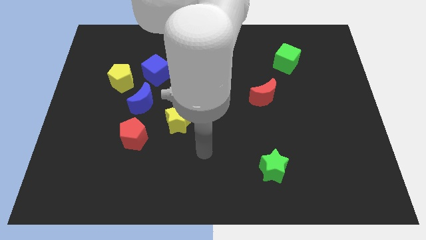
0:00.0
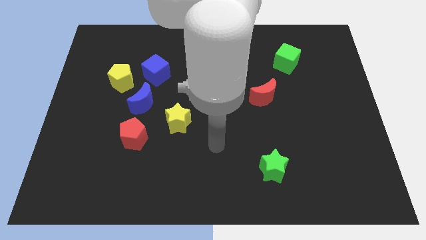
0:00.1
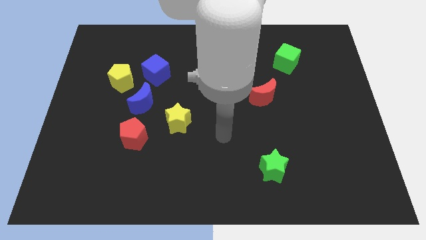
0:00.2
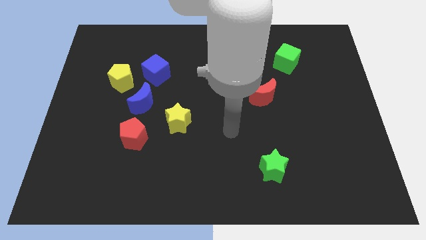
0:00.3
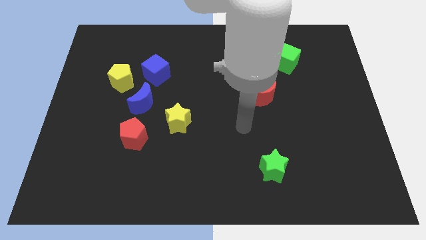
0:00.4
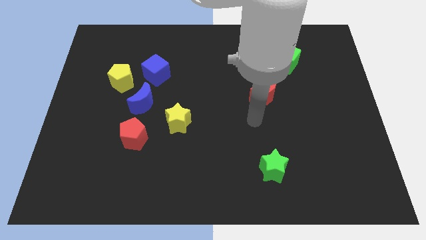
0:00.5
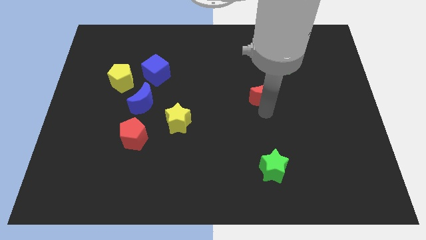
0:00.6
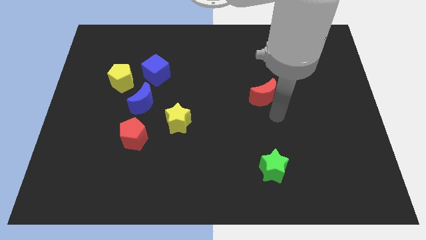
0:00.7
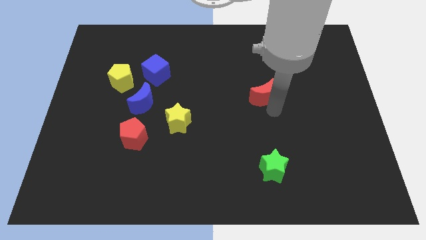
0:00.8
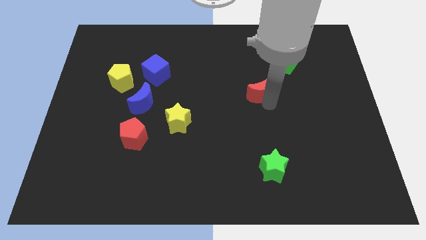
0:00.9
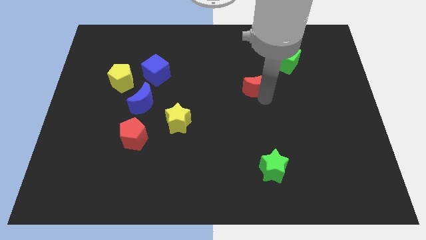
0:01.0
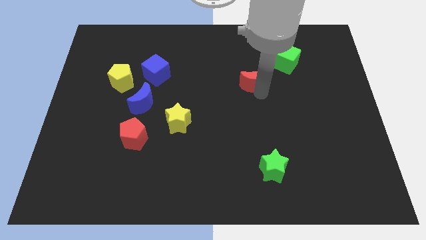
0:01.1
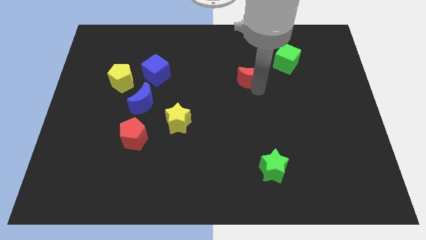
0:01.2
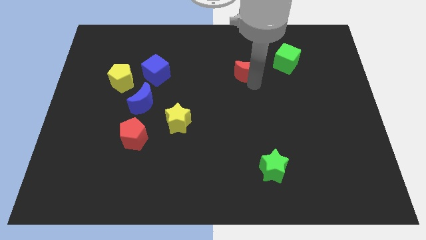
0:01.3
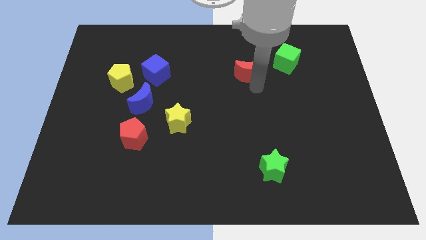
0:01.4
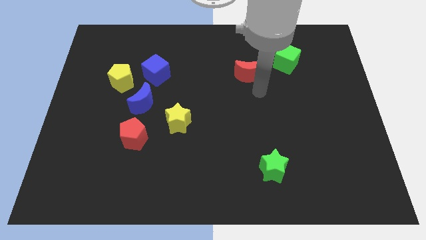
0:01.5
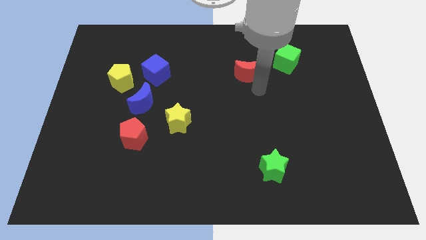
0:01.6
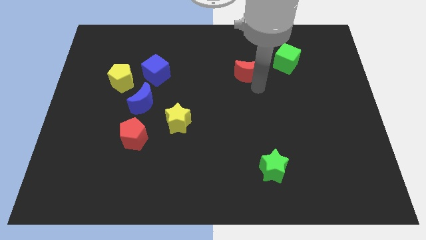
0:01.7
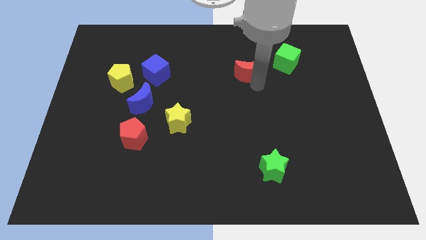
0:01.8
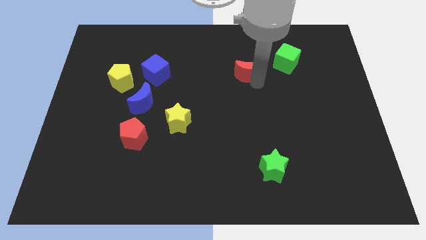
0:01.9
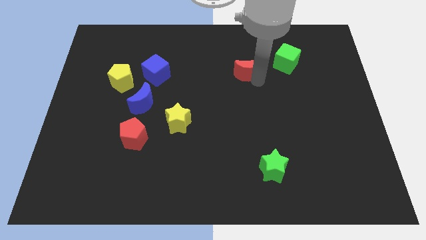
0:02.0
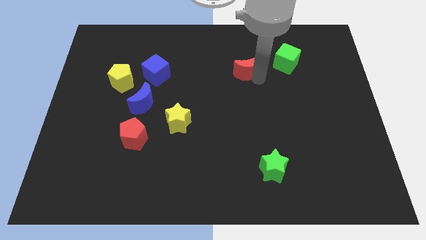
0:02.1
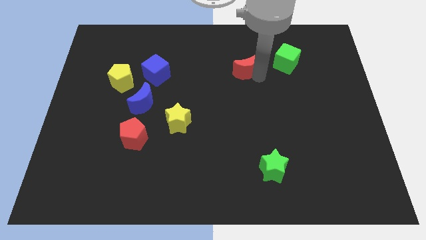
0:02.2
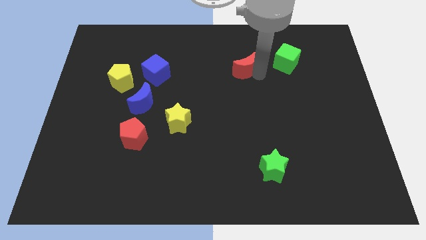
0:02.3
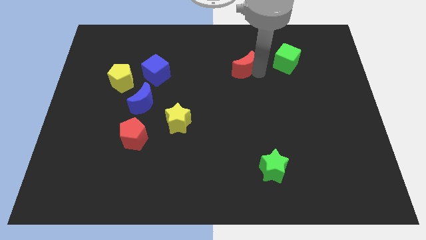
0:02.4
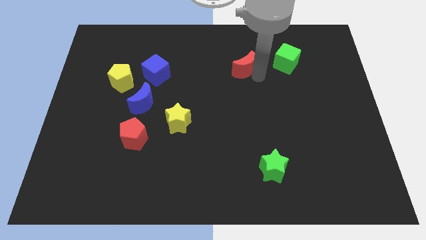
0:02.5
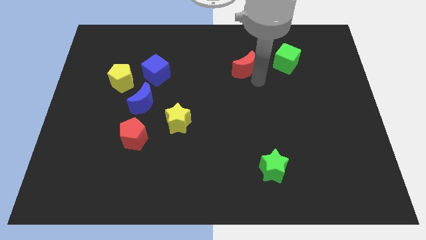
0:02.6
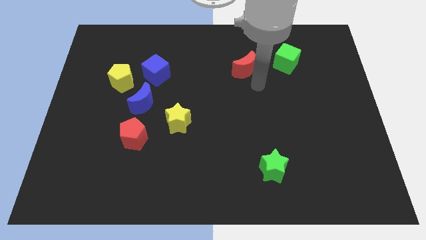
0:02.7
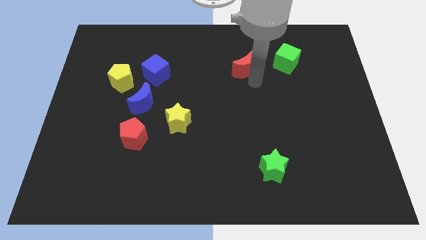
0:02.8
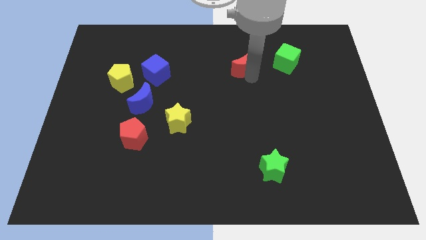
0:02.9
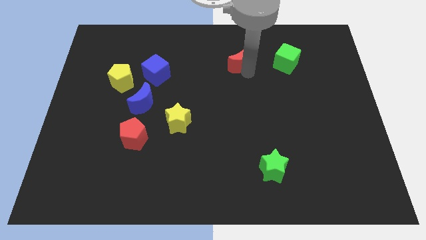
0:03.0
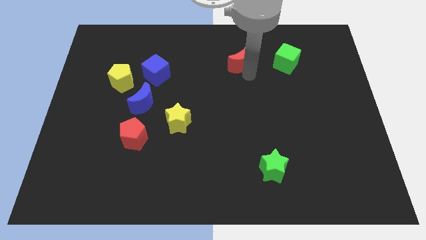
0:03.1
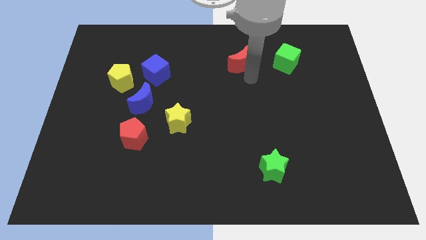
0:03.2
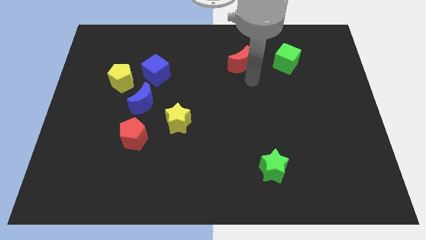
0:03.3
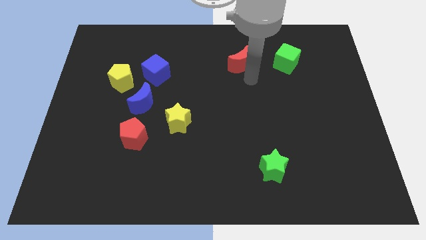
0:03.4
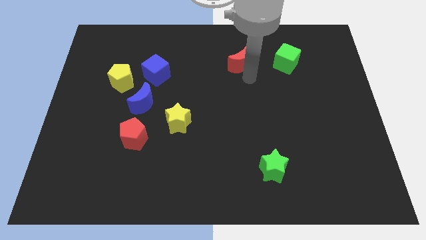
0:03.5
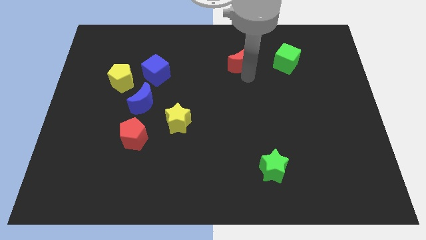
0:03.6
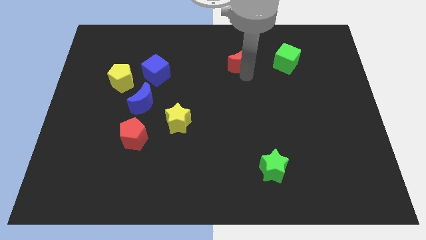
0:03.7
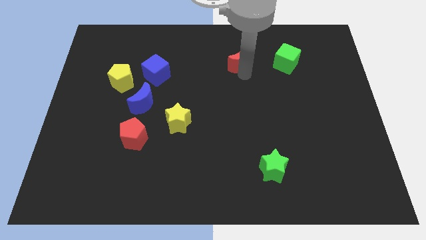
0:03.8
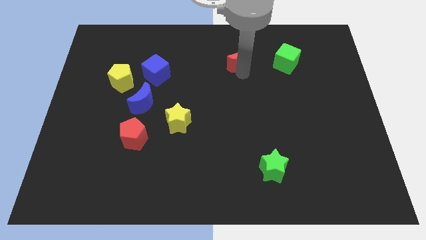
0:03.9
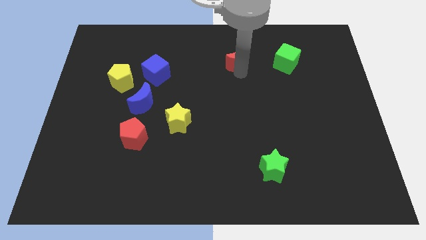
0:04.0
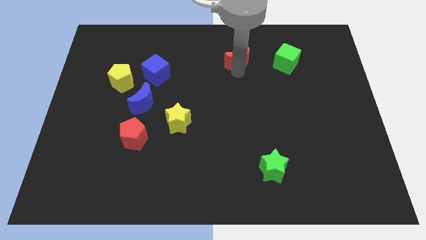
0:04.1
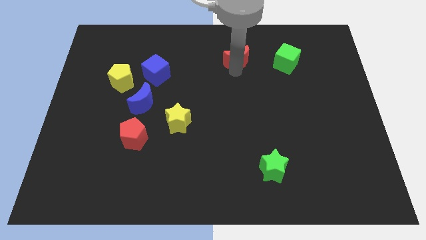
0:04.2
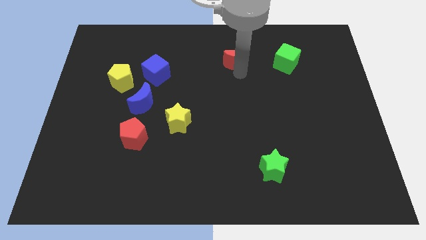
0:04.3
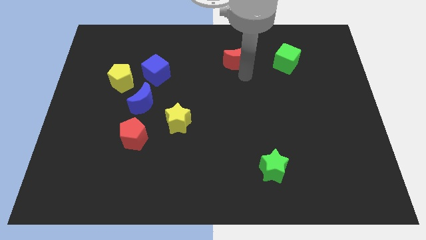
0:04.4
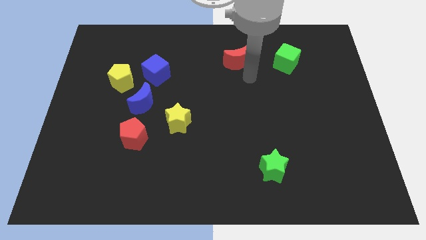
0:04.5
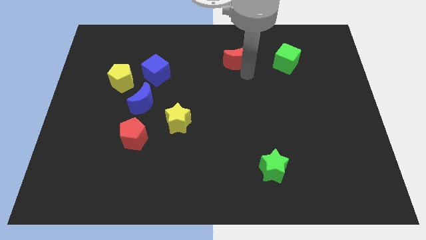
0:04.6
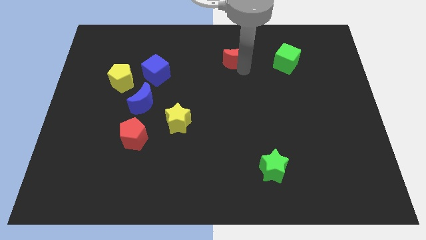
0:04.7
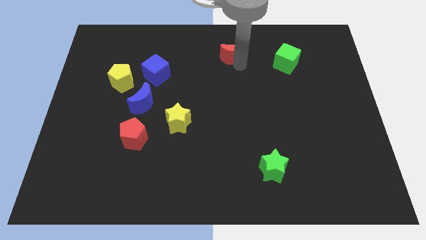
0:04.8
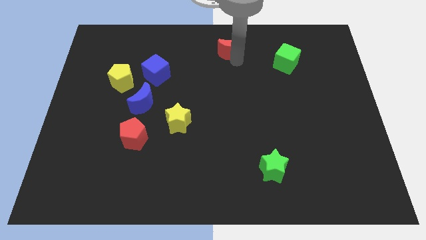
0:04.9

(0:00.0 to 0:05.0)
slide the red moon to the top side

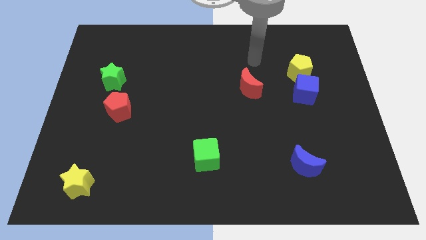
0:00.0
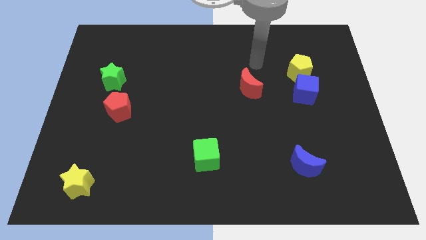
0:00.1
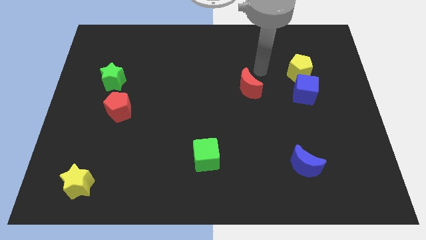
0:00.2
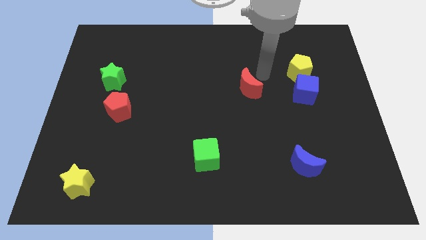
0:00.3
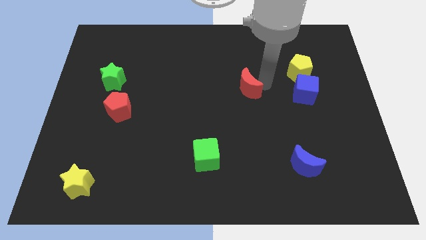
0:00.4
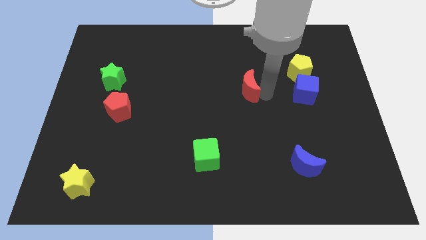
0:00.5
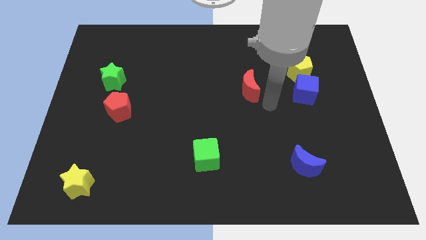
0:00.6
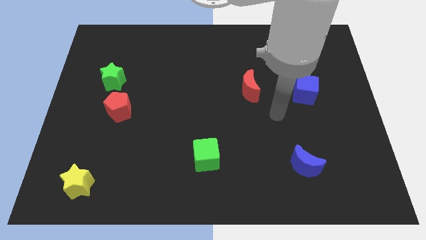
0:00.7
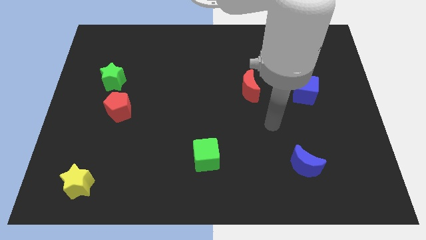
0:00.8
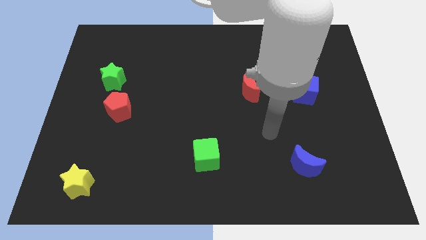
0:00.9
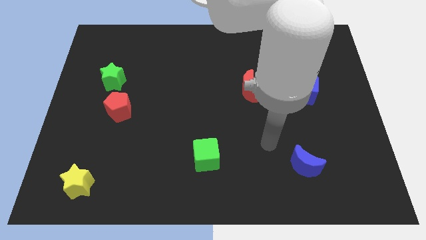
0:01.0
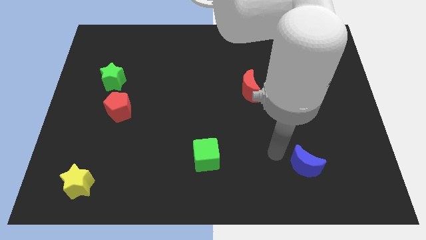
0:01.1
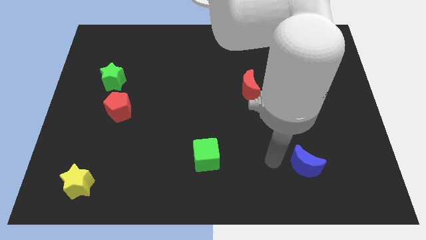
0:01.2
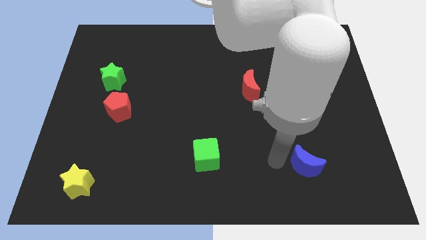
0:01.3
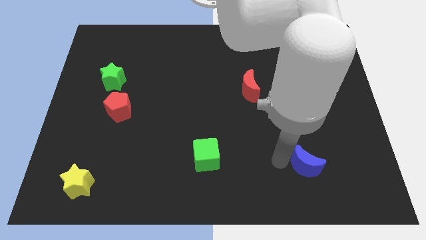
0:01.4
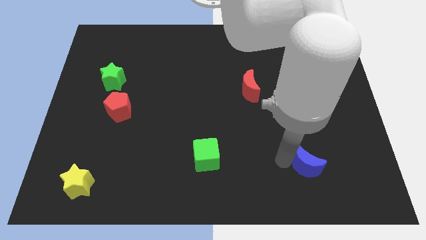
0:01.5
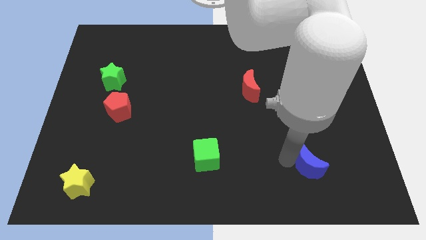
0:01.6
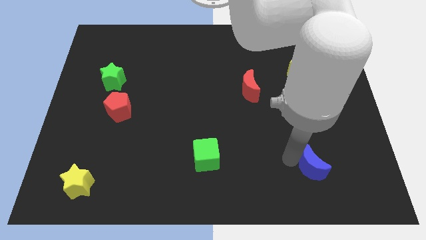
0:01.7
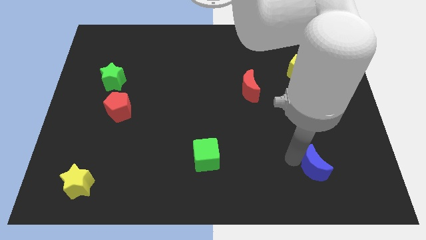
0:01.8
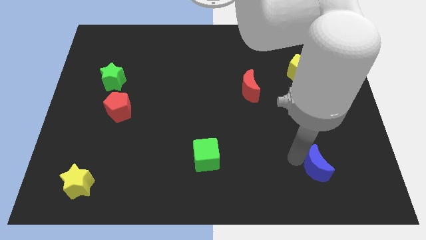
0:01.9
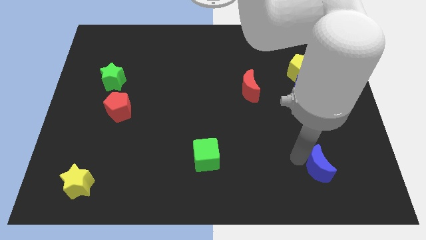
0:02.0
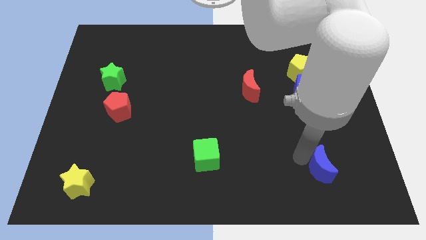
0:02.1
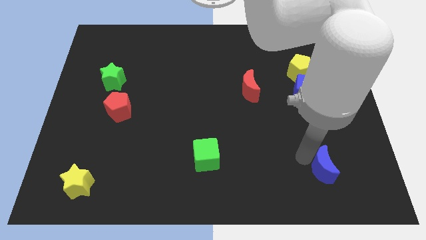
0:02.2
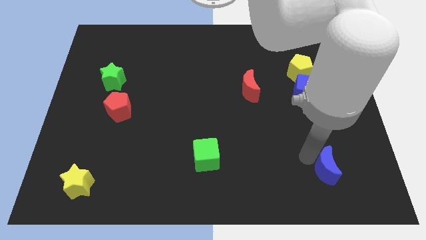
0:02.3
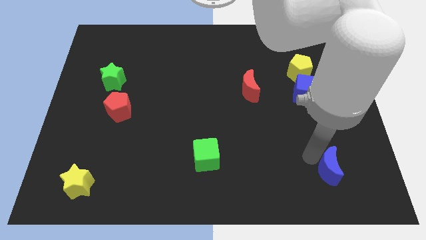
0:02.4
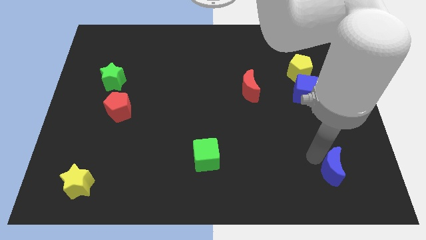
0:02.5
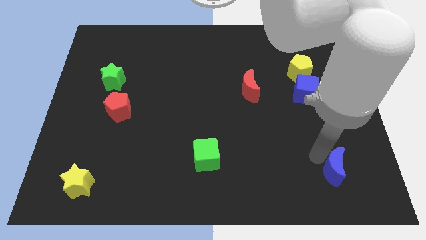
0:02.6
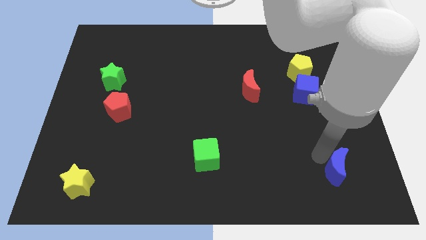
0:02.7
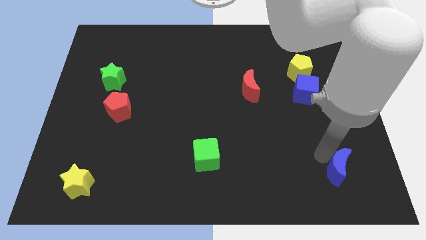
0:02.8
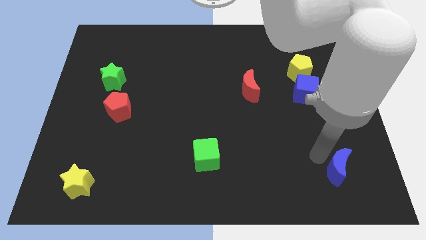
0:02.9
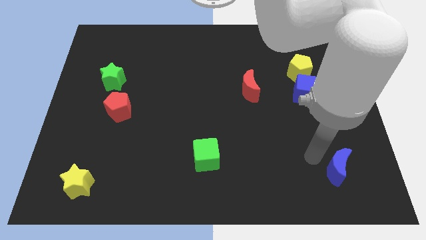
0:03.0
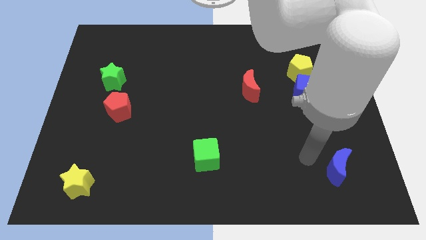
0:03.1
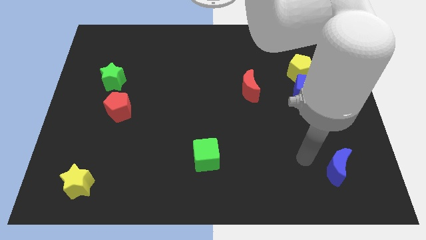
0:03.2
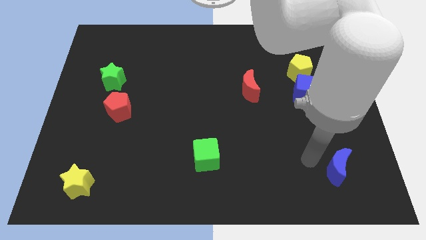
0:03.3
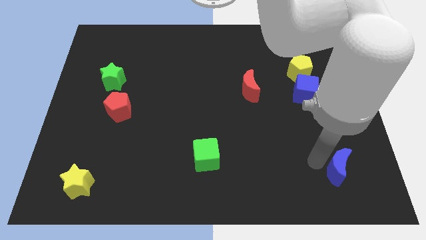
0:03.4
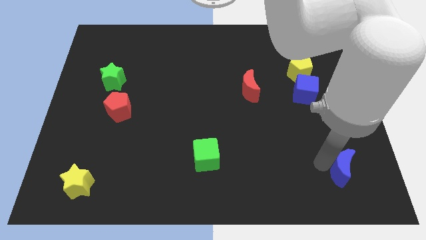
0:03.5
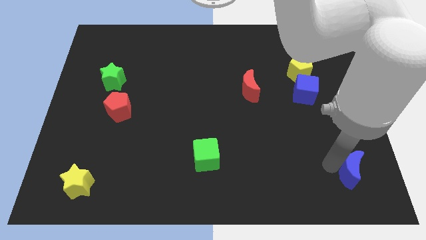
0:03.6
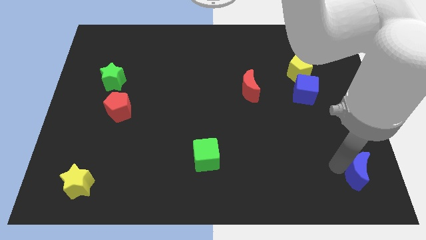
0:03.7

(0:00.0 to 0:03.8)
push the blue moon to the lower right corner
